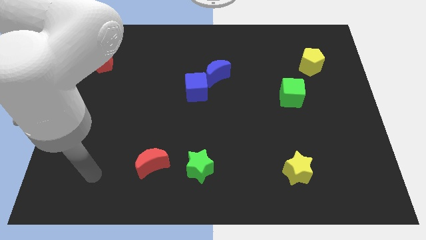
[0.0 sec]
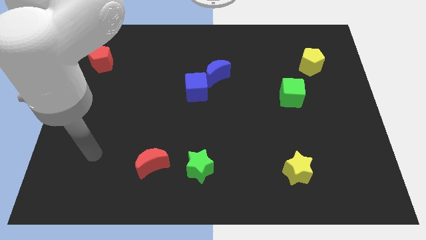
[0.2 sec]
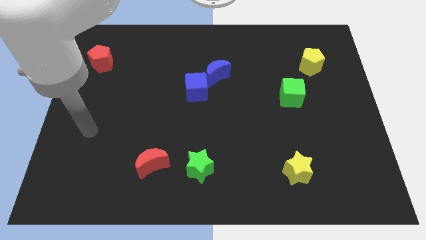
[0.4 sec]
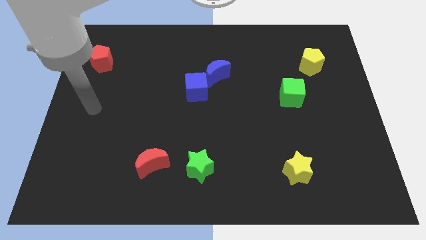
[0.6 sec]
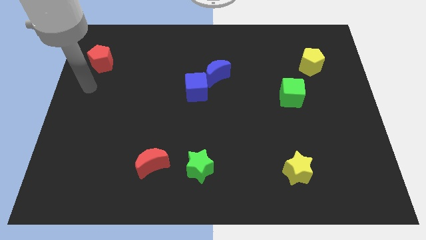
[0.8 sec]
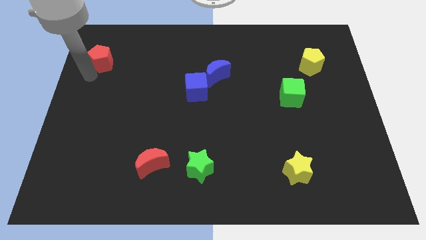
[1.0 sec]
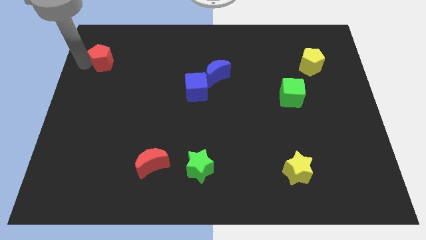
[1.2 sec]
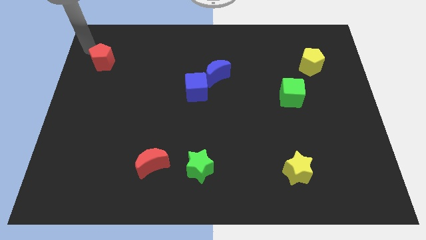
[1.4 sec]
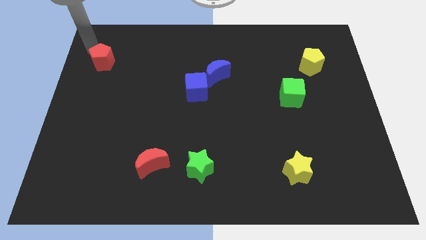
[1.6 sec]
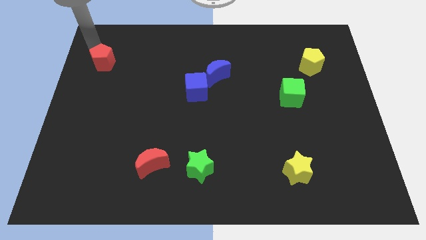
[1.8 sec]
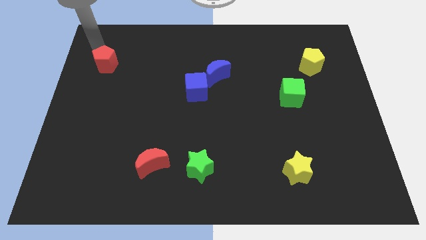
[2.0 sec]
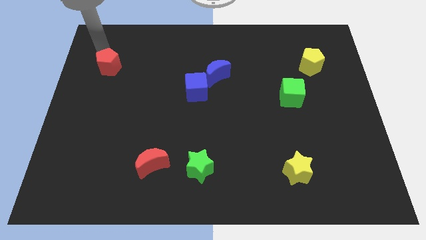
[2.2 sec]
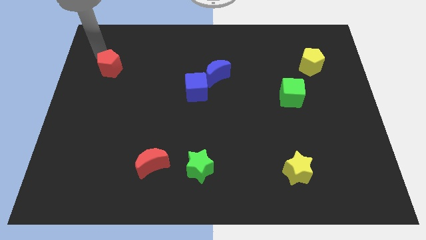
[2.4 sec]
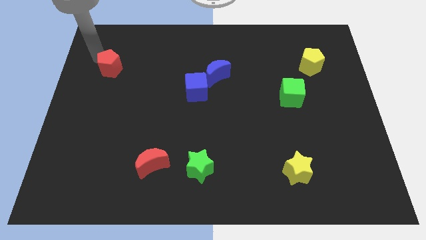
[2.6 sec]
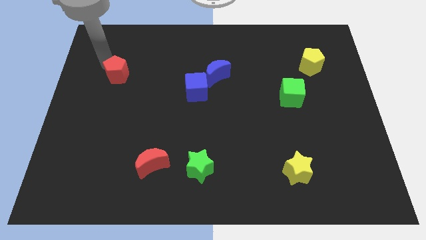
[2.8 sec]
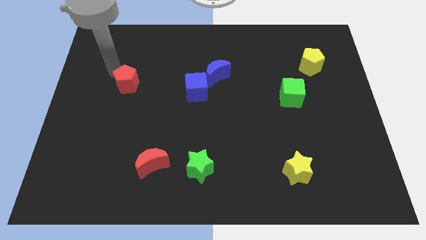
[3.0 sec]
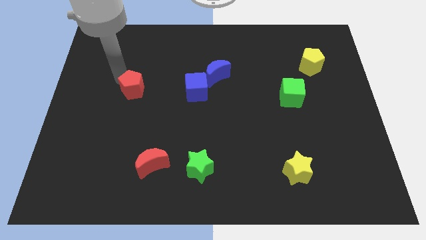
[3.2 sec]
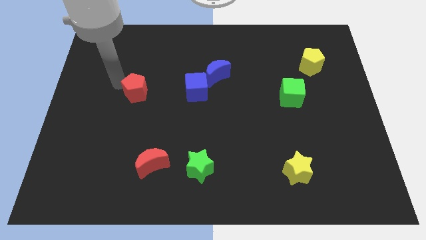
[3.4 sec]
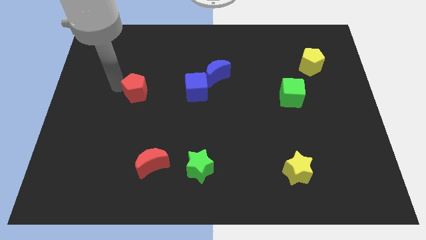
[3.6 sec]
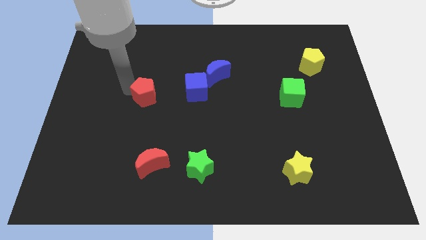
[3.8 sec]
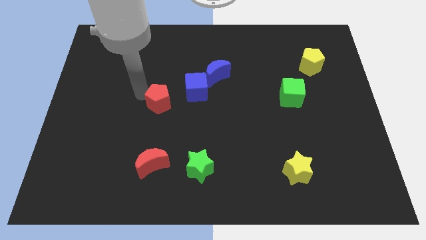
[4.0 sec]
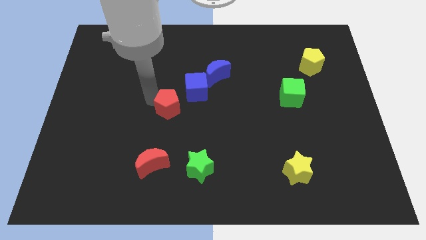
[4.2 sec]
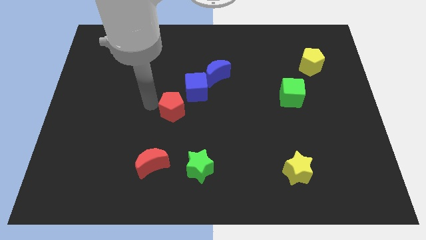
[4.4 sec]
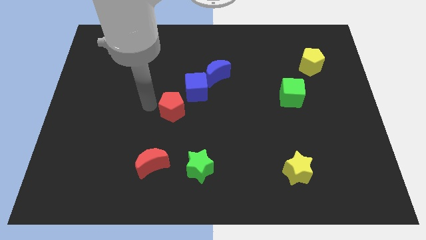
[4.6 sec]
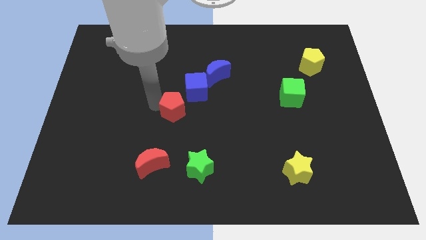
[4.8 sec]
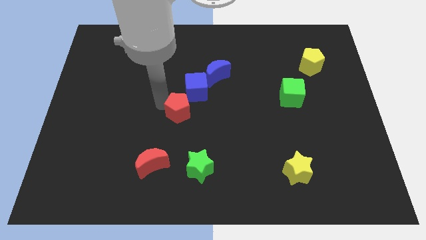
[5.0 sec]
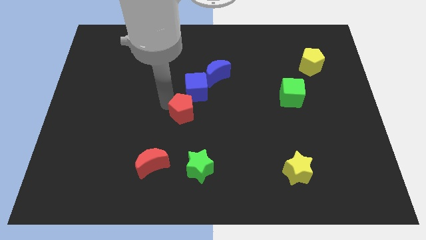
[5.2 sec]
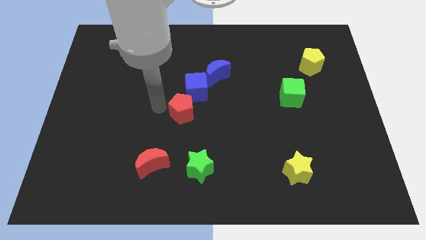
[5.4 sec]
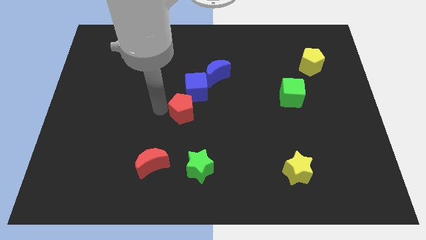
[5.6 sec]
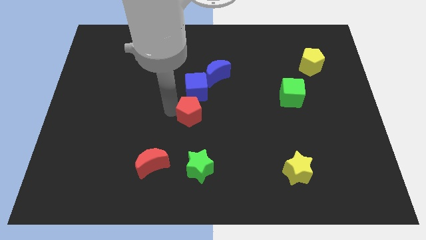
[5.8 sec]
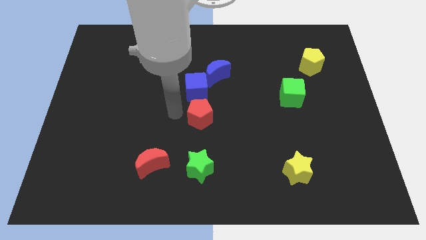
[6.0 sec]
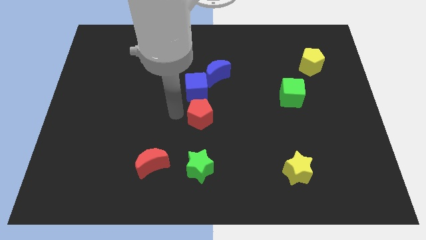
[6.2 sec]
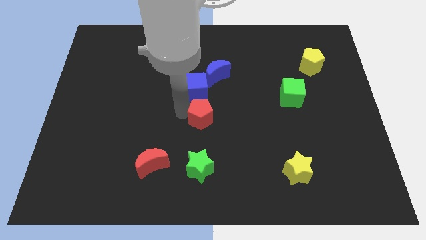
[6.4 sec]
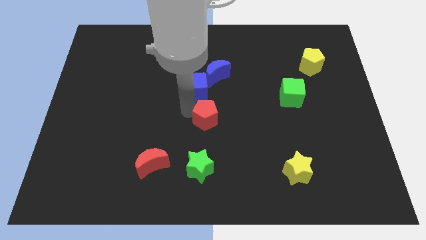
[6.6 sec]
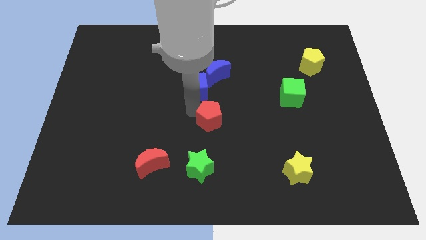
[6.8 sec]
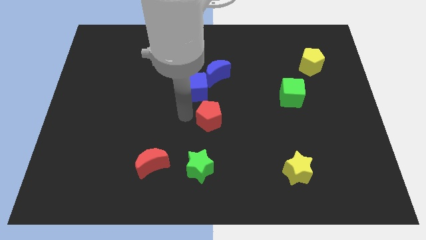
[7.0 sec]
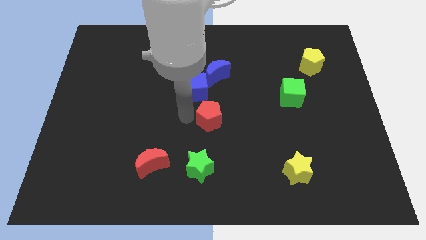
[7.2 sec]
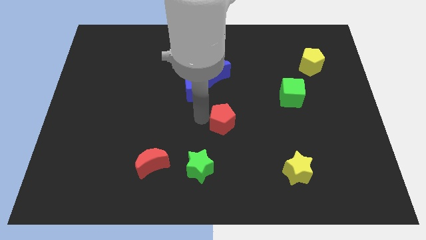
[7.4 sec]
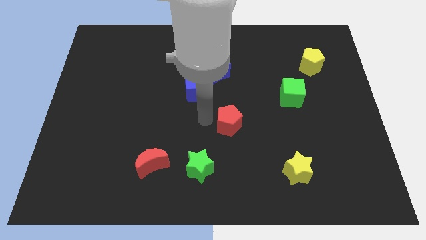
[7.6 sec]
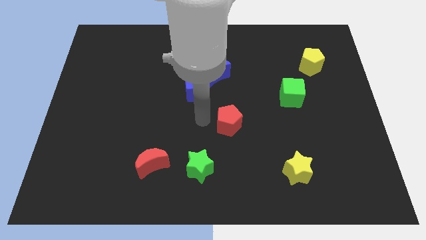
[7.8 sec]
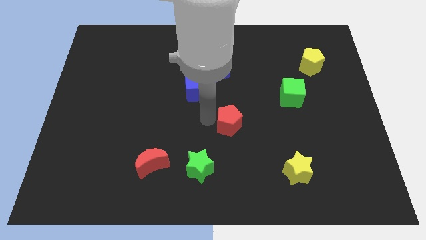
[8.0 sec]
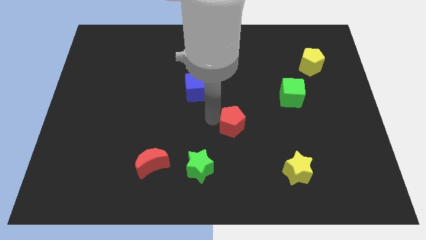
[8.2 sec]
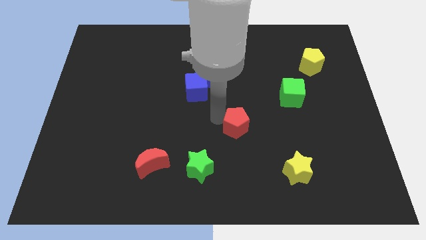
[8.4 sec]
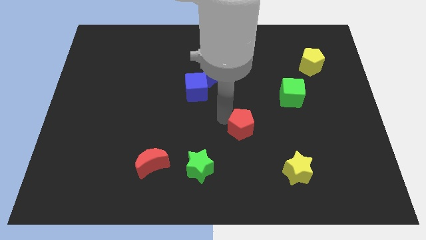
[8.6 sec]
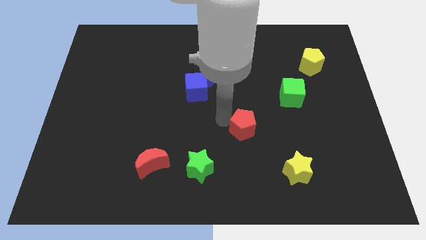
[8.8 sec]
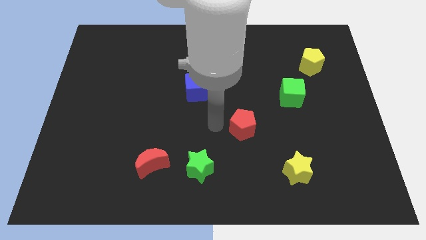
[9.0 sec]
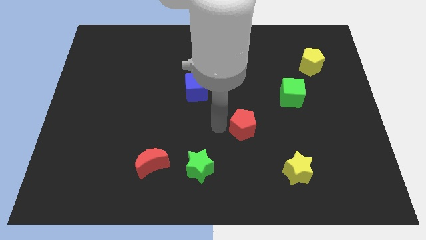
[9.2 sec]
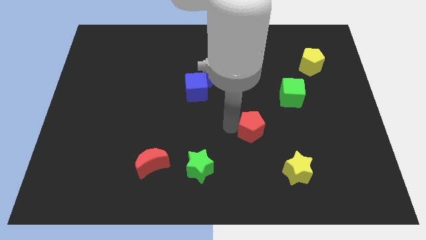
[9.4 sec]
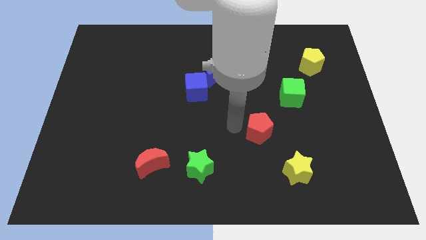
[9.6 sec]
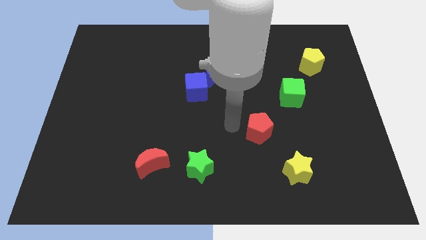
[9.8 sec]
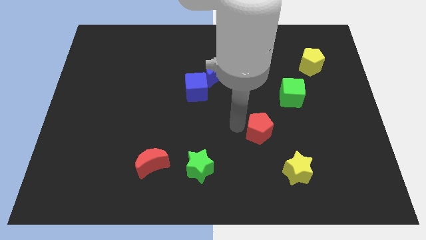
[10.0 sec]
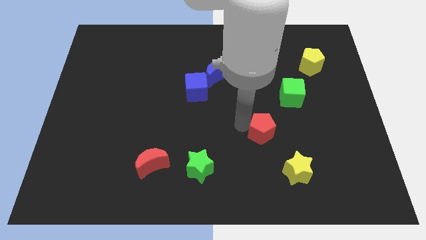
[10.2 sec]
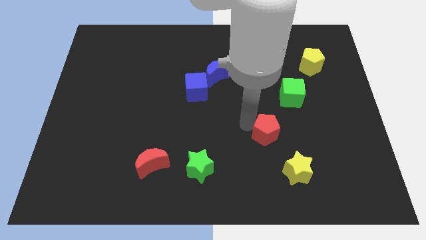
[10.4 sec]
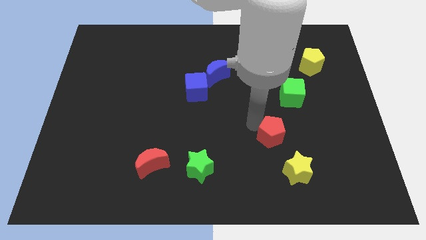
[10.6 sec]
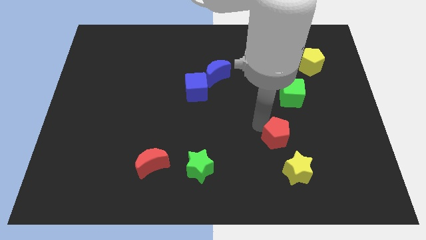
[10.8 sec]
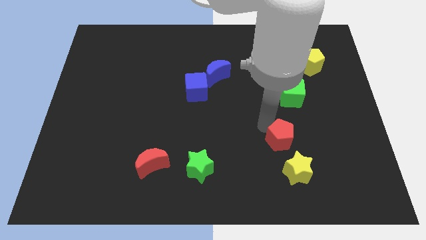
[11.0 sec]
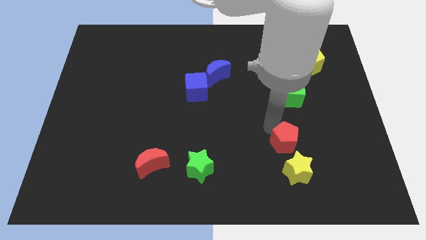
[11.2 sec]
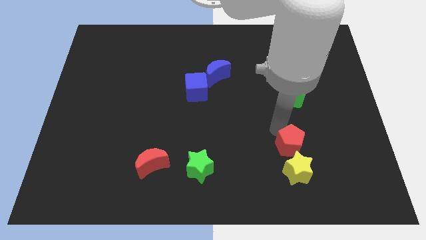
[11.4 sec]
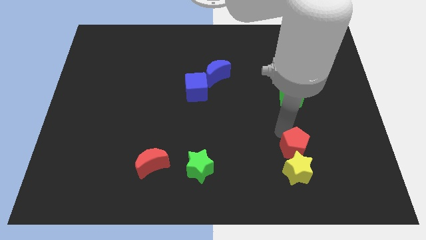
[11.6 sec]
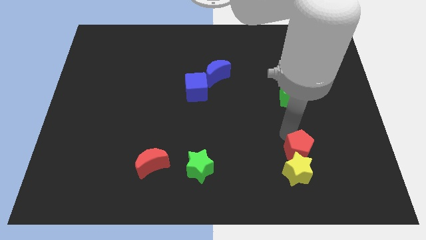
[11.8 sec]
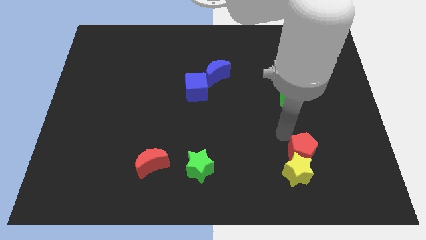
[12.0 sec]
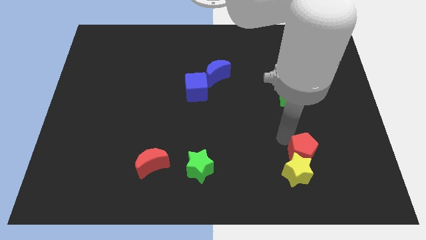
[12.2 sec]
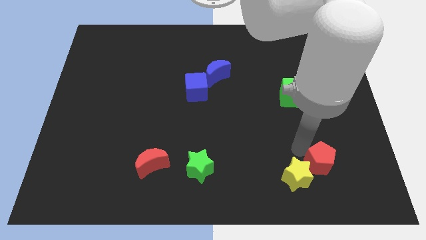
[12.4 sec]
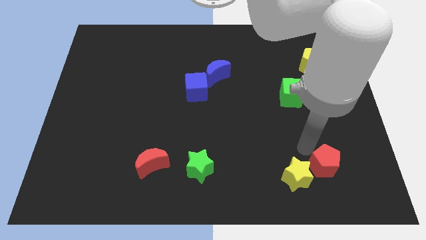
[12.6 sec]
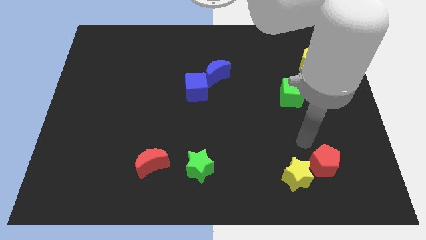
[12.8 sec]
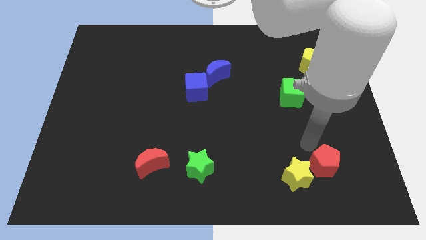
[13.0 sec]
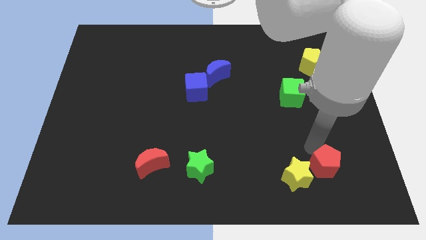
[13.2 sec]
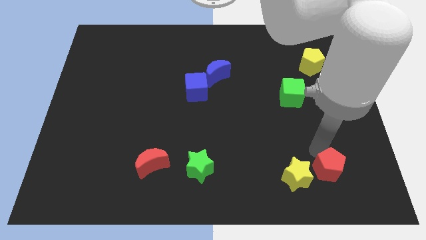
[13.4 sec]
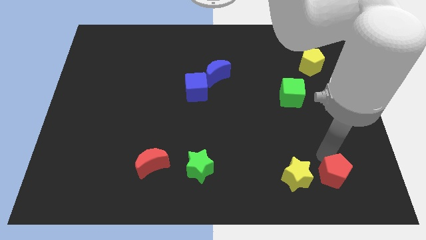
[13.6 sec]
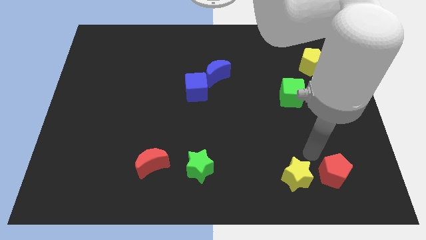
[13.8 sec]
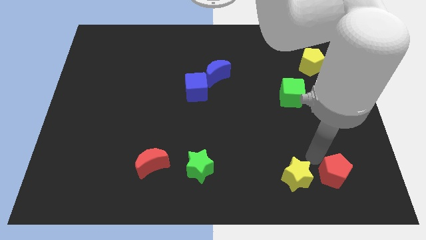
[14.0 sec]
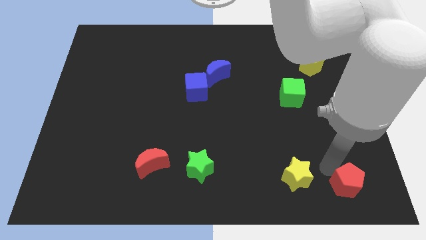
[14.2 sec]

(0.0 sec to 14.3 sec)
put the red pentagon to the bottom right
